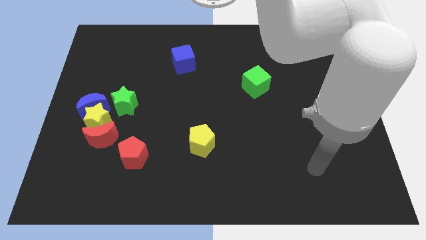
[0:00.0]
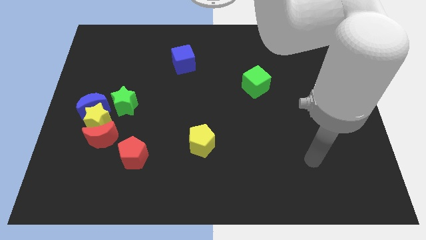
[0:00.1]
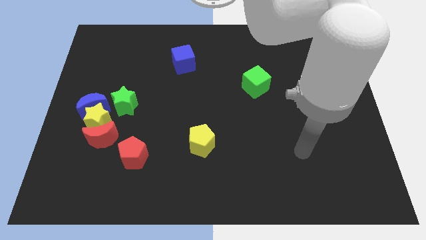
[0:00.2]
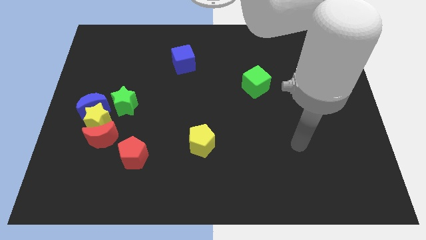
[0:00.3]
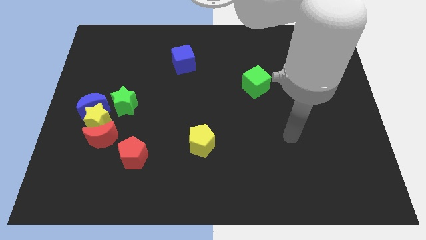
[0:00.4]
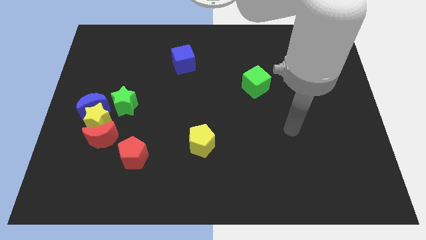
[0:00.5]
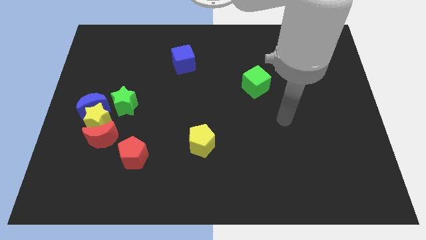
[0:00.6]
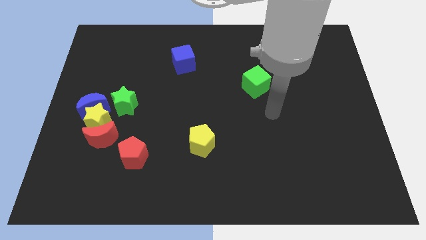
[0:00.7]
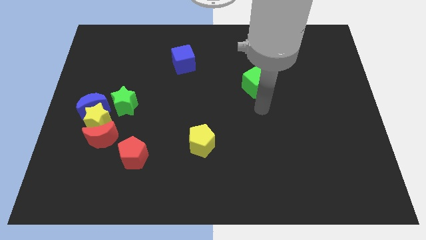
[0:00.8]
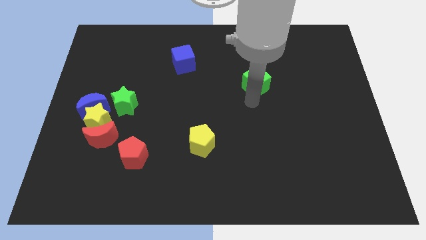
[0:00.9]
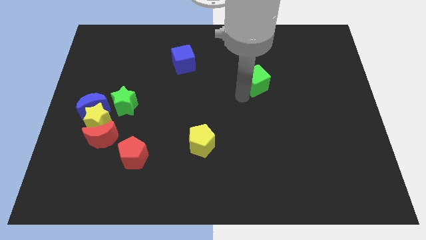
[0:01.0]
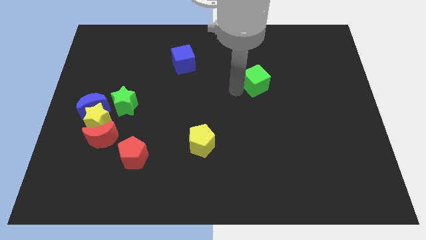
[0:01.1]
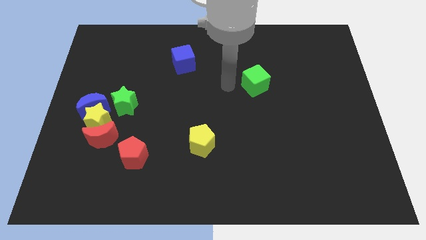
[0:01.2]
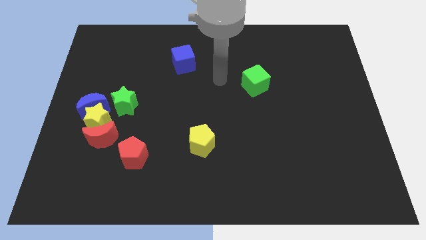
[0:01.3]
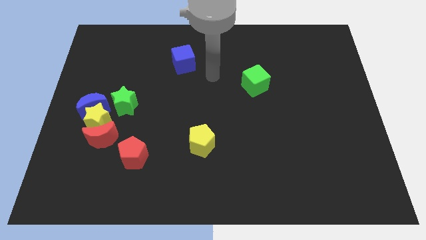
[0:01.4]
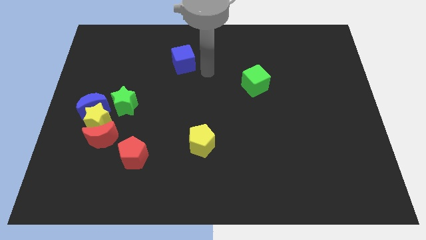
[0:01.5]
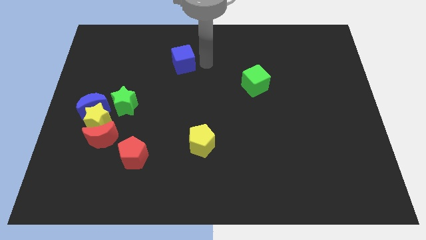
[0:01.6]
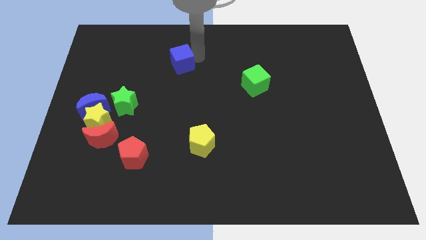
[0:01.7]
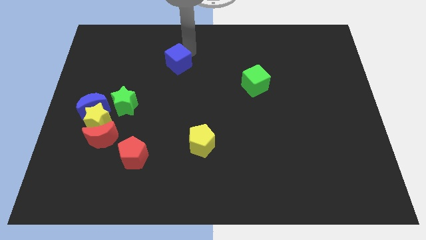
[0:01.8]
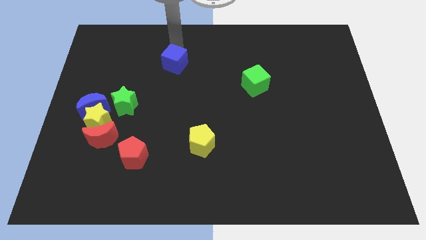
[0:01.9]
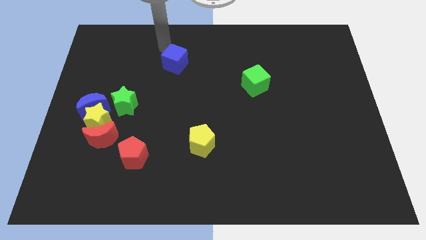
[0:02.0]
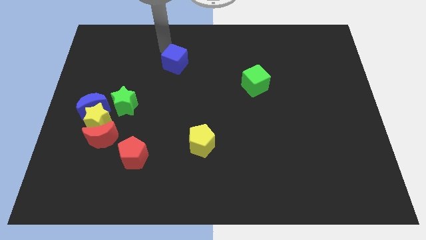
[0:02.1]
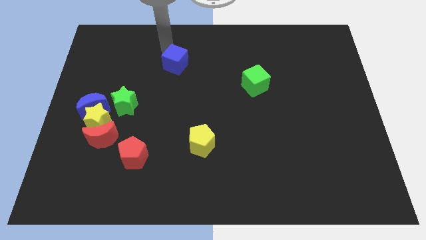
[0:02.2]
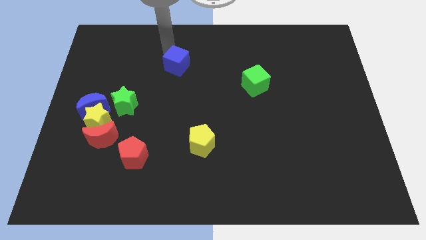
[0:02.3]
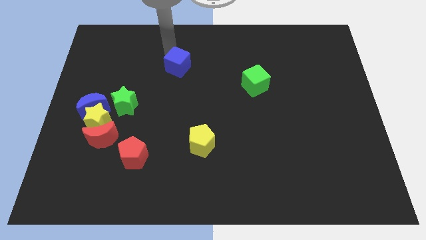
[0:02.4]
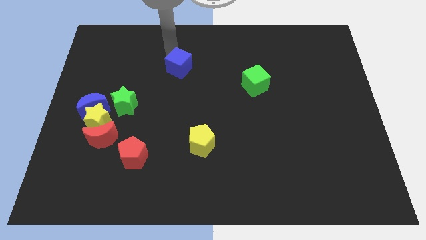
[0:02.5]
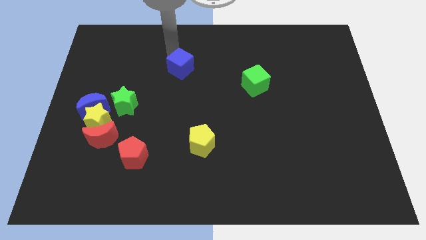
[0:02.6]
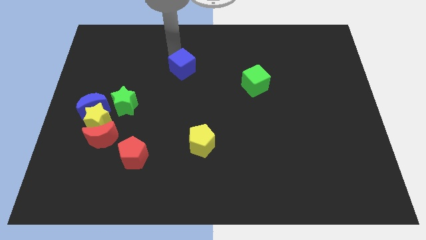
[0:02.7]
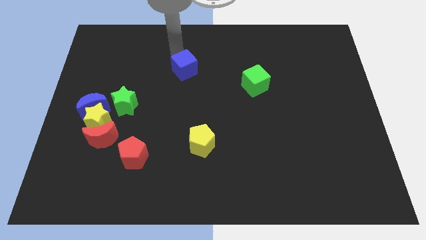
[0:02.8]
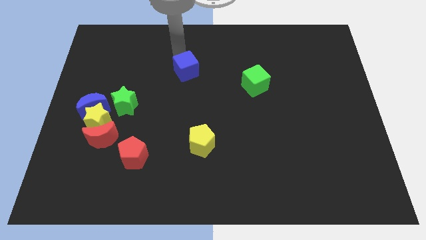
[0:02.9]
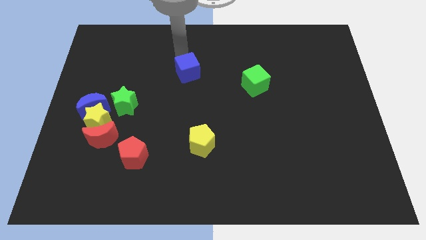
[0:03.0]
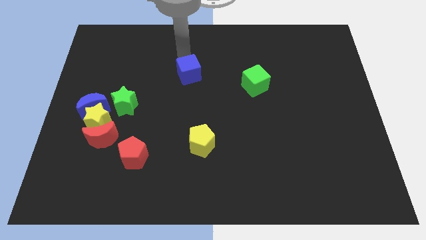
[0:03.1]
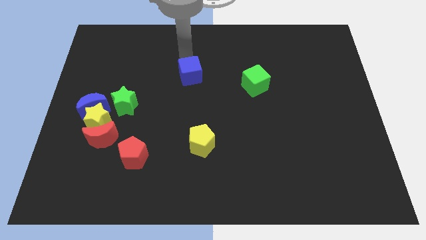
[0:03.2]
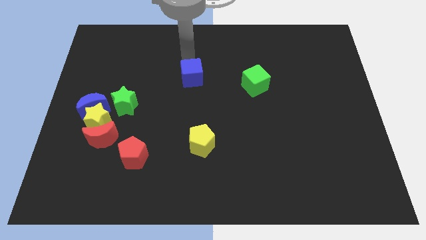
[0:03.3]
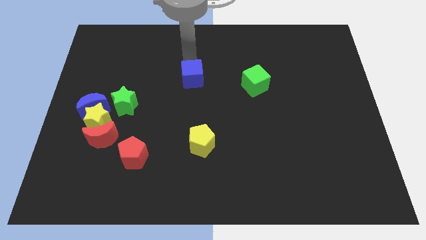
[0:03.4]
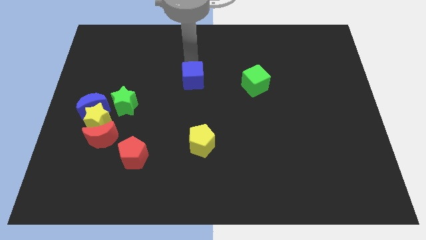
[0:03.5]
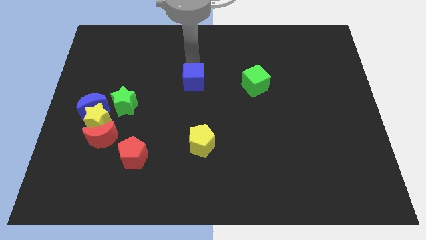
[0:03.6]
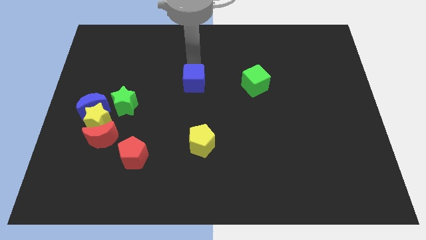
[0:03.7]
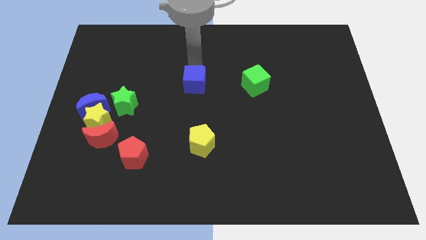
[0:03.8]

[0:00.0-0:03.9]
push the blue cube a bit downwards

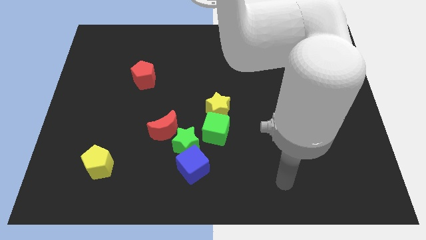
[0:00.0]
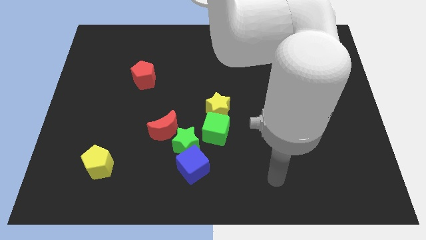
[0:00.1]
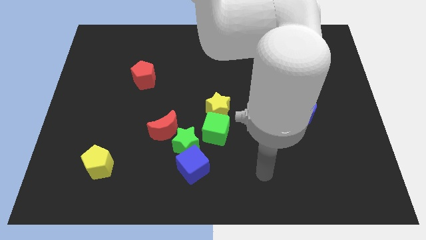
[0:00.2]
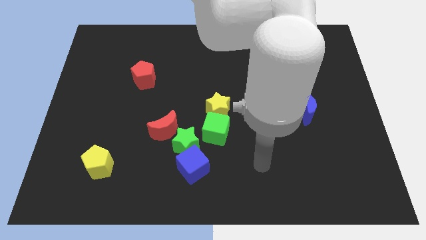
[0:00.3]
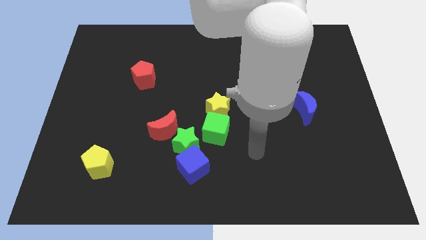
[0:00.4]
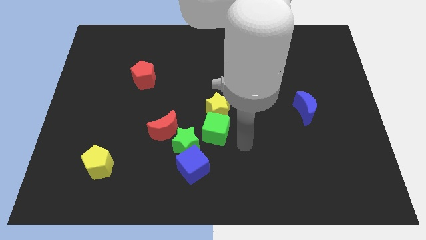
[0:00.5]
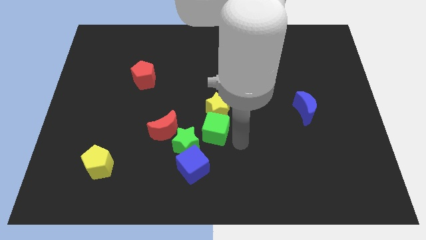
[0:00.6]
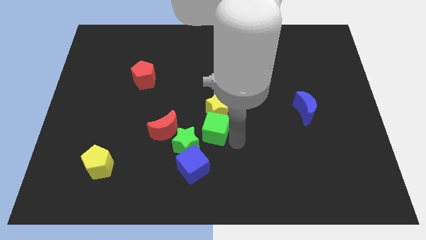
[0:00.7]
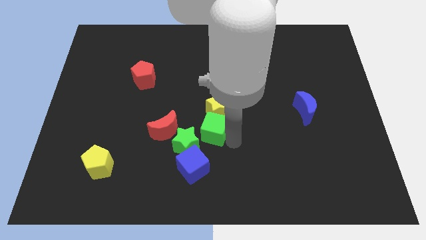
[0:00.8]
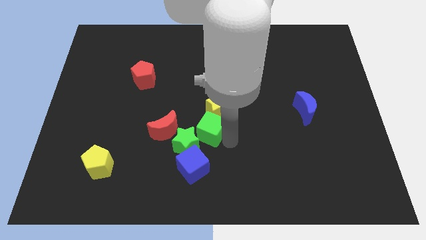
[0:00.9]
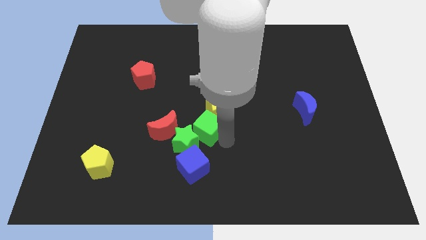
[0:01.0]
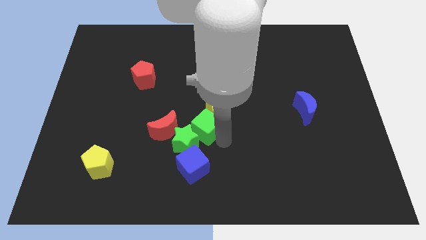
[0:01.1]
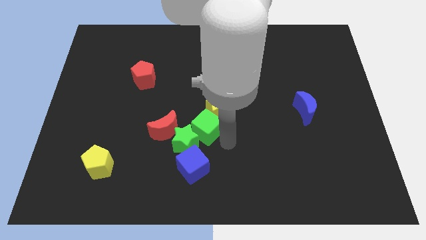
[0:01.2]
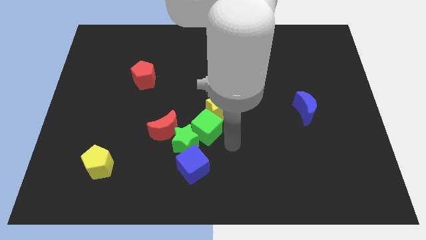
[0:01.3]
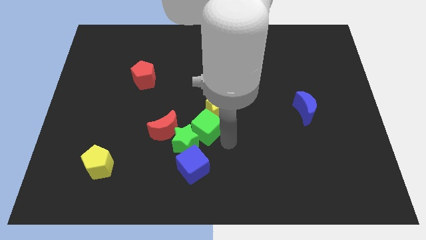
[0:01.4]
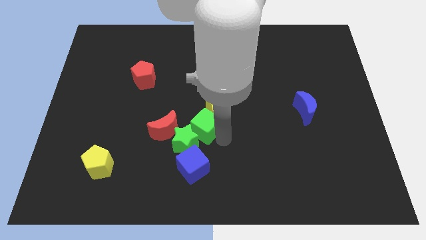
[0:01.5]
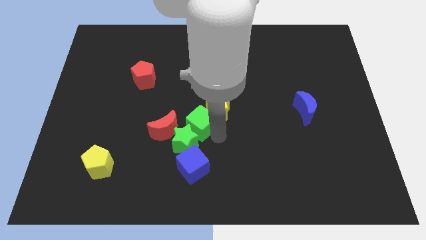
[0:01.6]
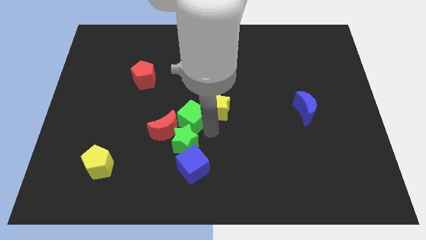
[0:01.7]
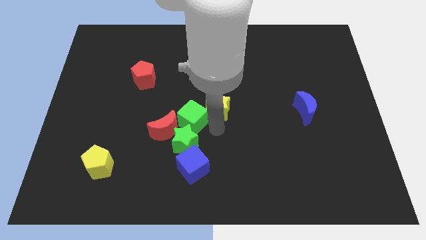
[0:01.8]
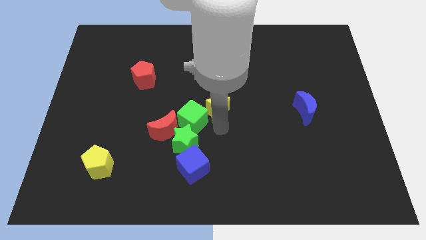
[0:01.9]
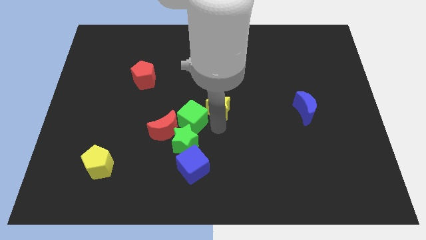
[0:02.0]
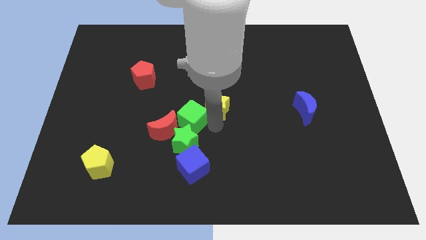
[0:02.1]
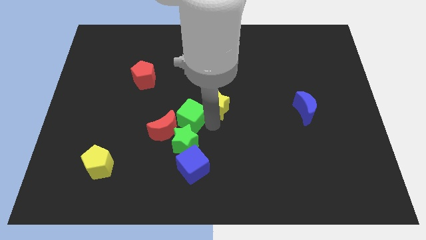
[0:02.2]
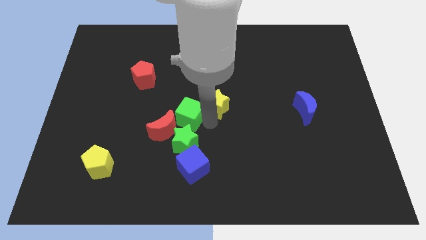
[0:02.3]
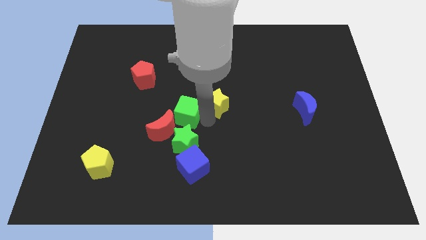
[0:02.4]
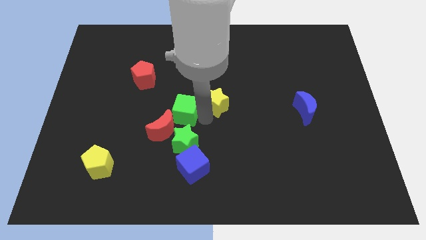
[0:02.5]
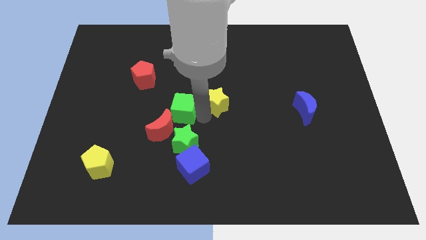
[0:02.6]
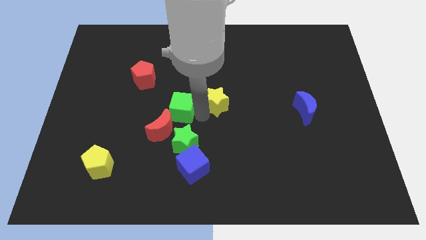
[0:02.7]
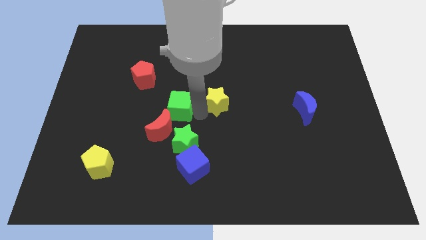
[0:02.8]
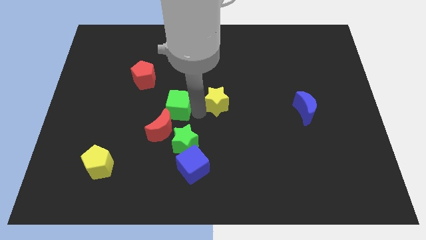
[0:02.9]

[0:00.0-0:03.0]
slide the green cube left a little

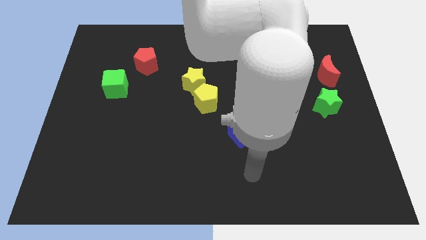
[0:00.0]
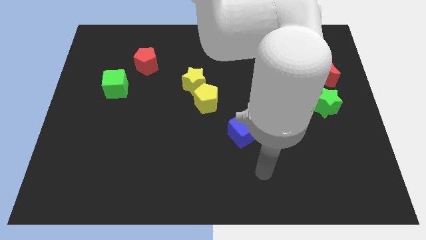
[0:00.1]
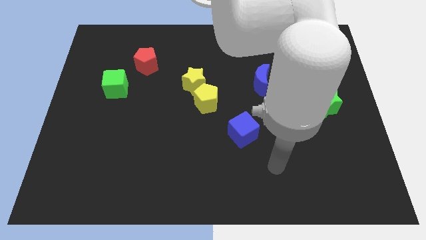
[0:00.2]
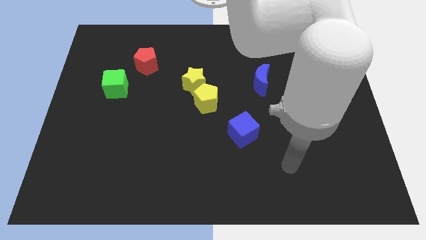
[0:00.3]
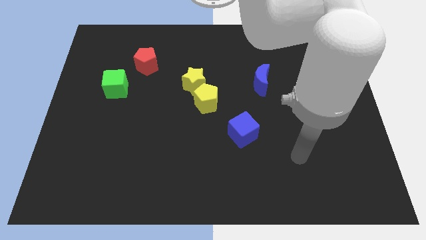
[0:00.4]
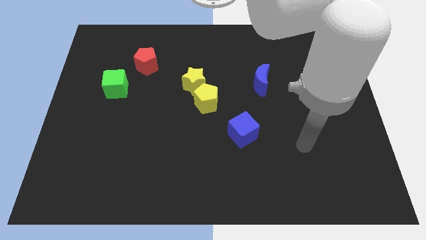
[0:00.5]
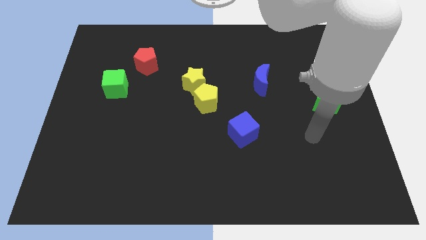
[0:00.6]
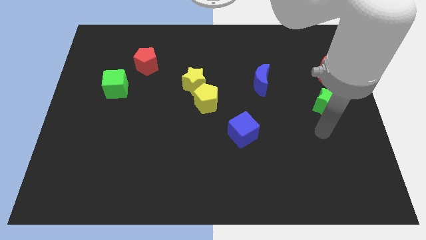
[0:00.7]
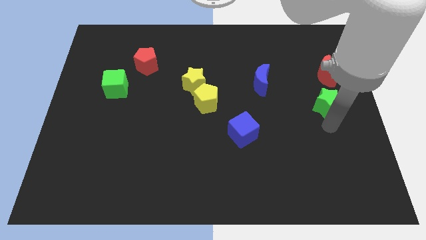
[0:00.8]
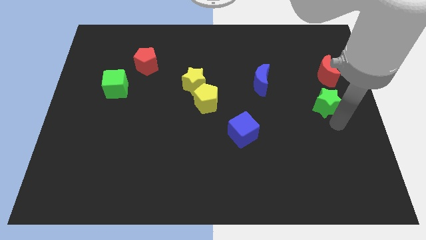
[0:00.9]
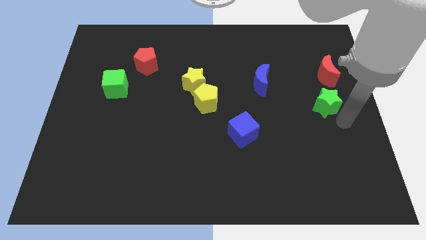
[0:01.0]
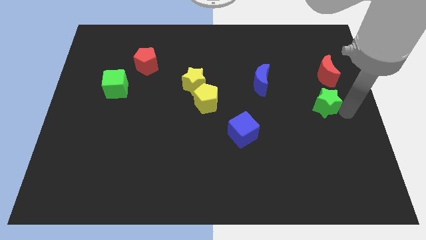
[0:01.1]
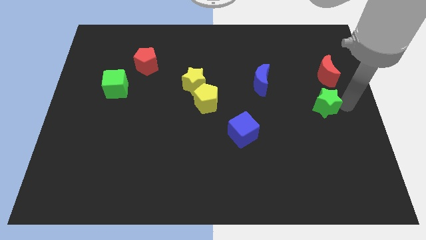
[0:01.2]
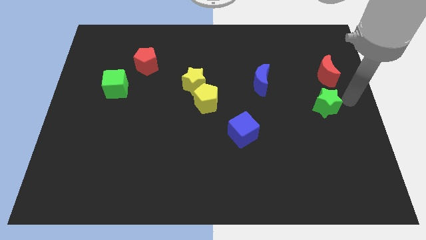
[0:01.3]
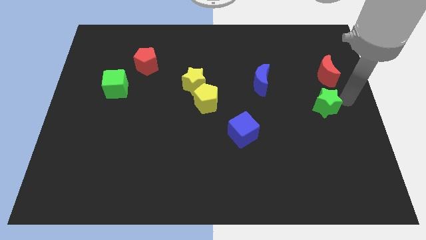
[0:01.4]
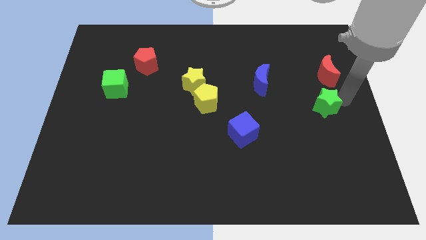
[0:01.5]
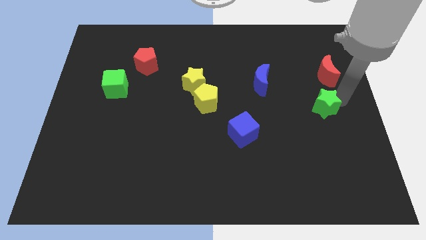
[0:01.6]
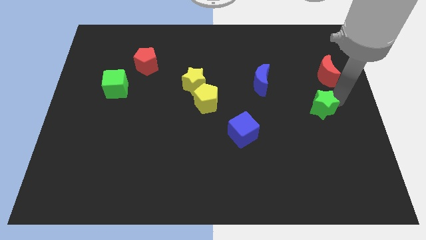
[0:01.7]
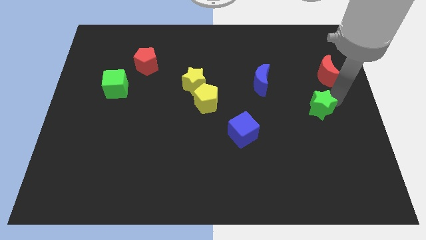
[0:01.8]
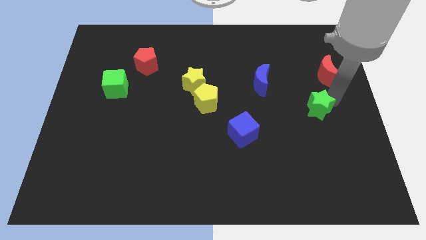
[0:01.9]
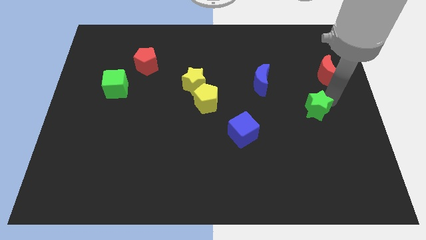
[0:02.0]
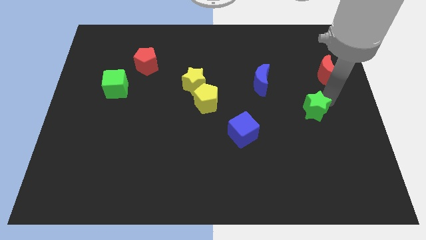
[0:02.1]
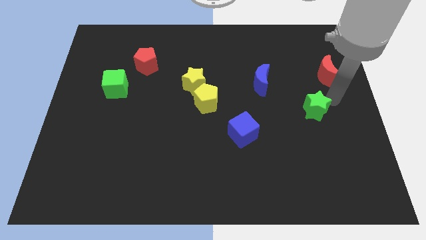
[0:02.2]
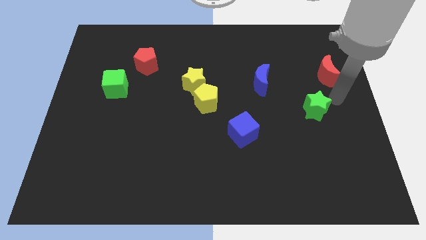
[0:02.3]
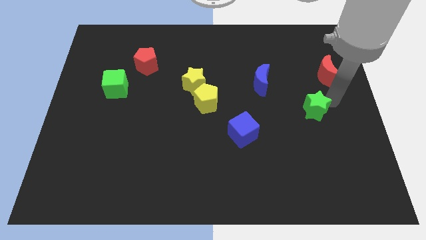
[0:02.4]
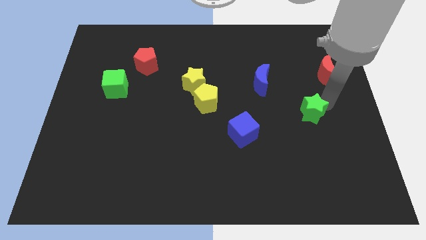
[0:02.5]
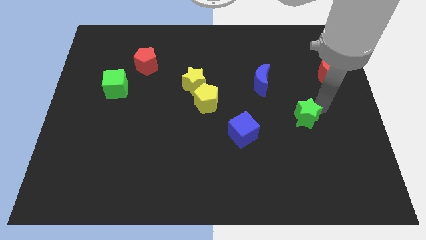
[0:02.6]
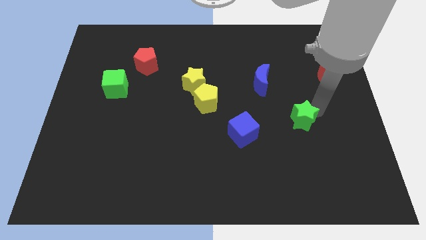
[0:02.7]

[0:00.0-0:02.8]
slightly move the green star downwards and to the left diagonally
